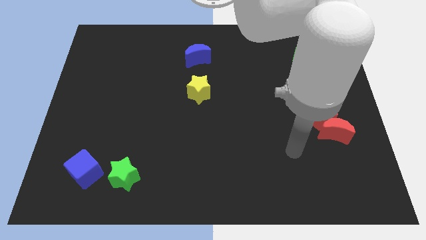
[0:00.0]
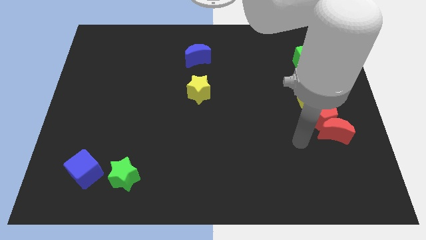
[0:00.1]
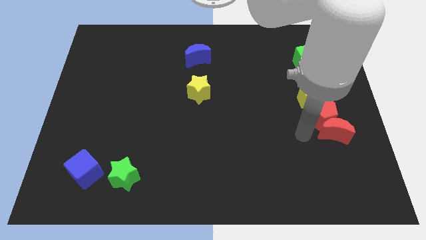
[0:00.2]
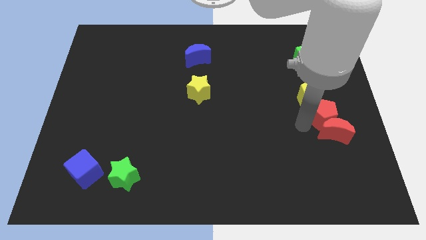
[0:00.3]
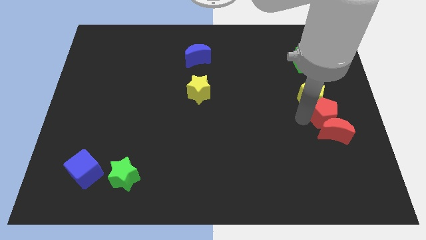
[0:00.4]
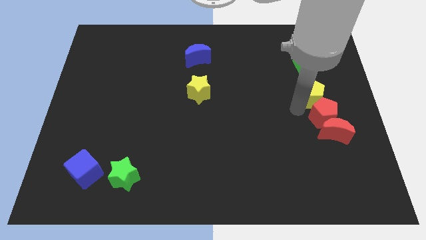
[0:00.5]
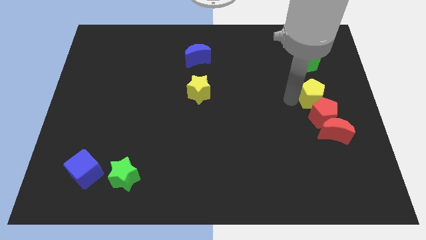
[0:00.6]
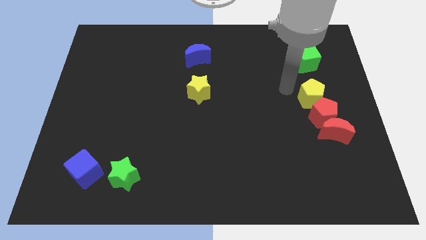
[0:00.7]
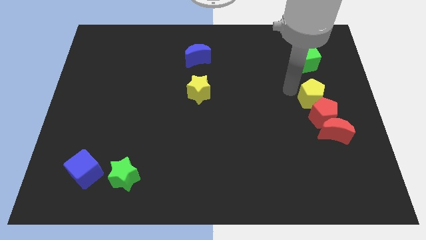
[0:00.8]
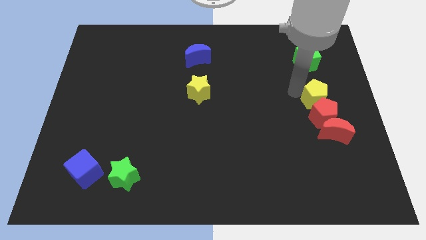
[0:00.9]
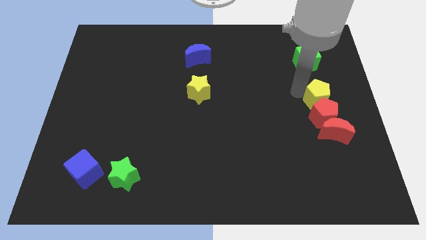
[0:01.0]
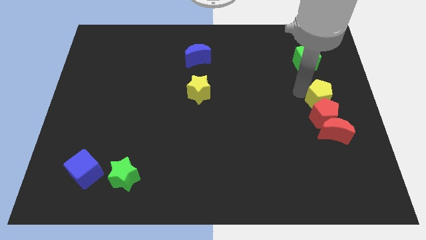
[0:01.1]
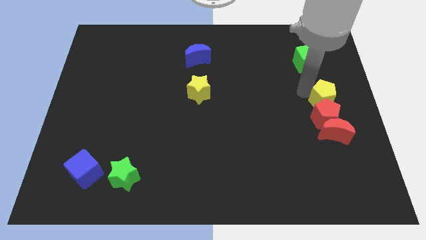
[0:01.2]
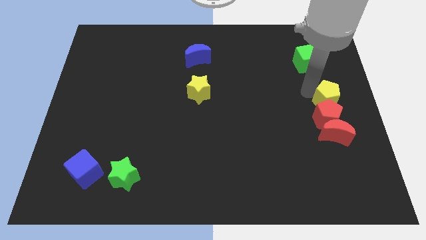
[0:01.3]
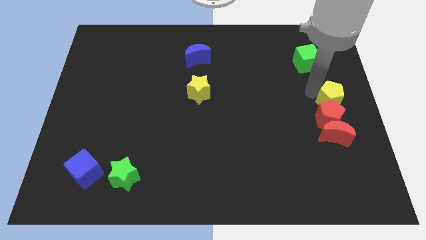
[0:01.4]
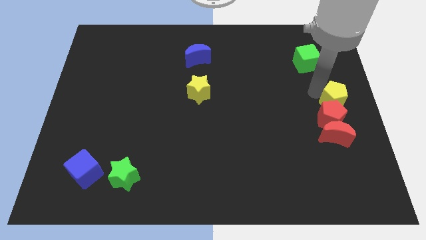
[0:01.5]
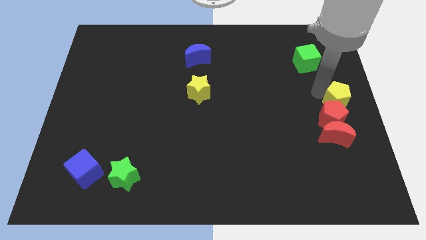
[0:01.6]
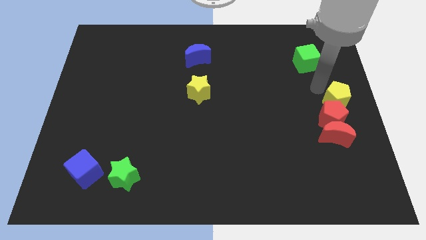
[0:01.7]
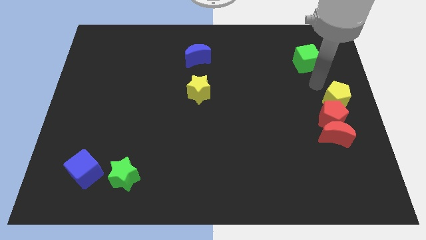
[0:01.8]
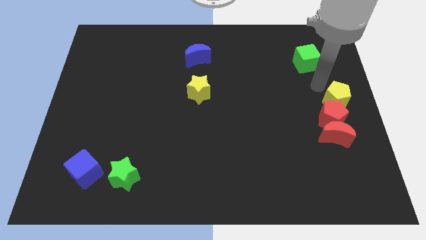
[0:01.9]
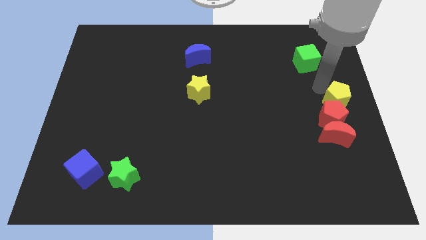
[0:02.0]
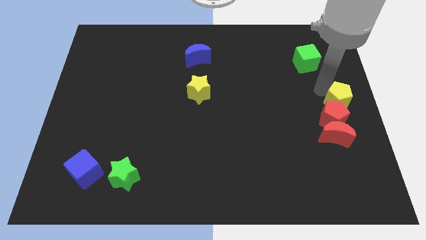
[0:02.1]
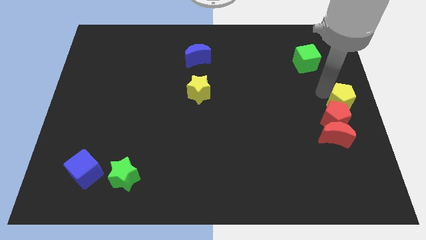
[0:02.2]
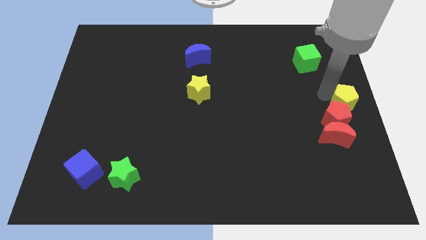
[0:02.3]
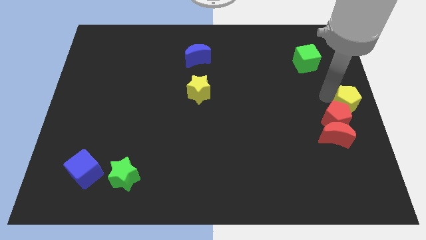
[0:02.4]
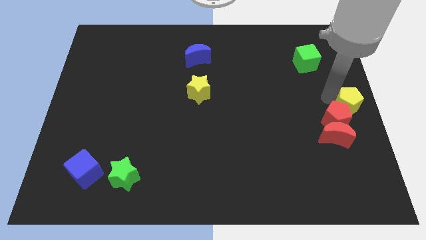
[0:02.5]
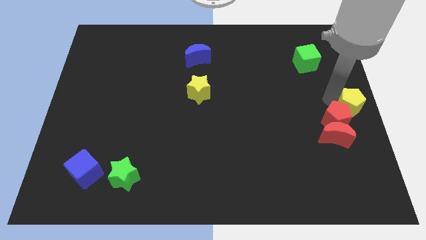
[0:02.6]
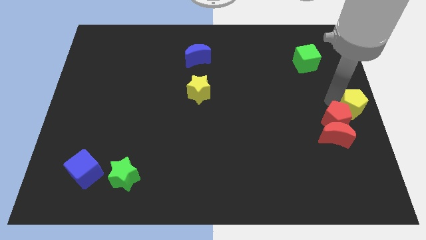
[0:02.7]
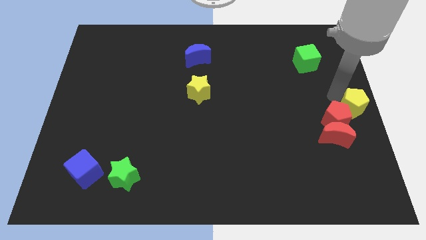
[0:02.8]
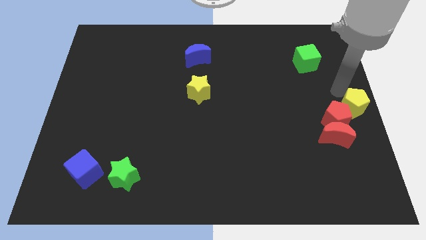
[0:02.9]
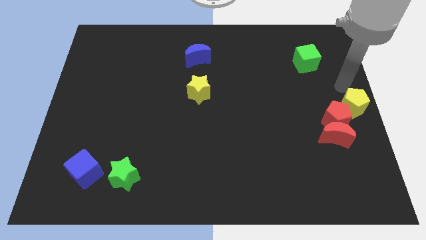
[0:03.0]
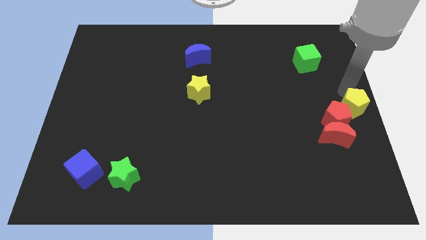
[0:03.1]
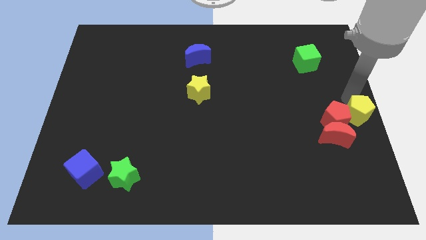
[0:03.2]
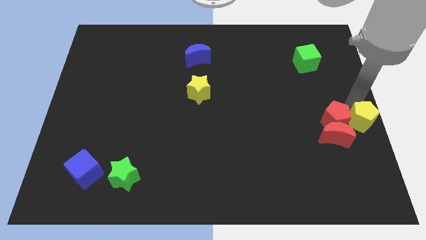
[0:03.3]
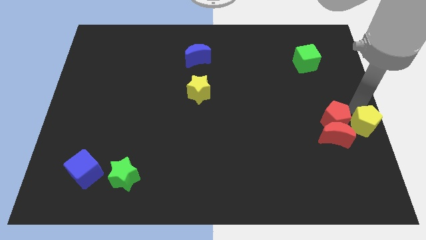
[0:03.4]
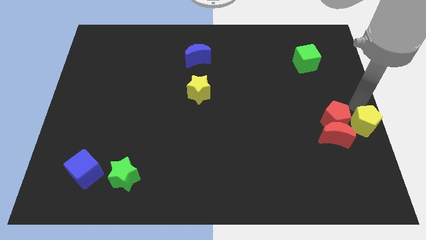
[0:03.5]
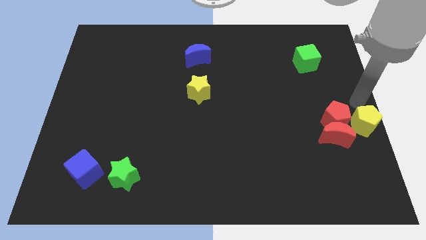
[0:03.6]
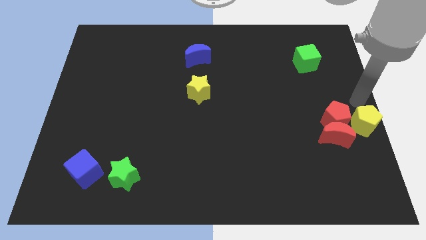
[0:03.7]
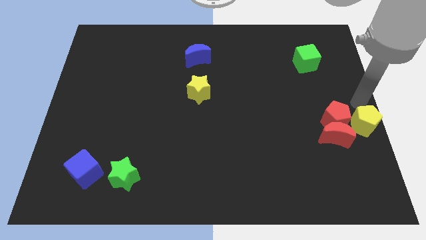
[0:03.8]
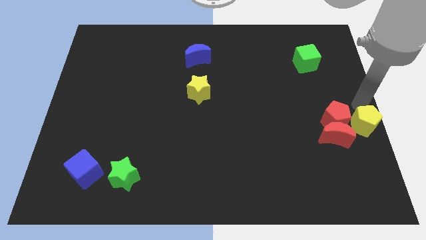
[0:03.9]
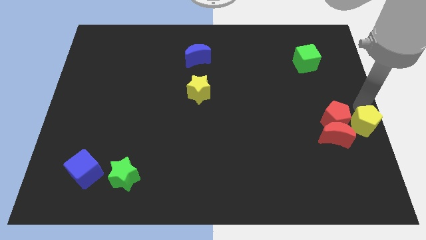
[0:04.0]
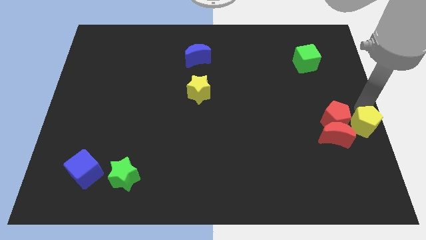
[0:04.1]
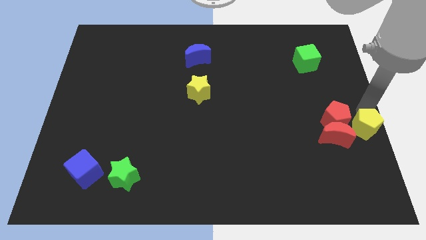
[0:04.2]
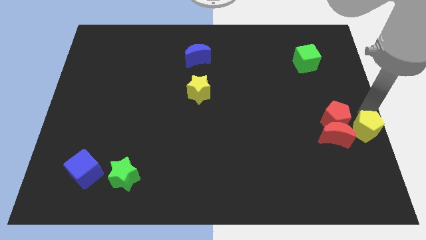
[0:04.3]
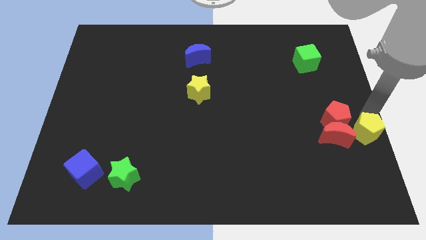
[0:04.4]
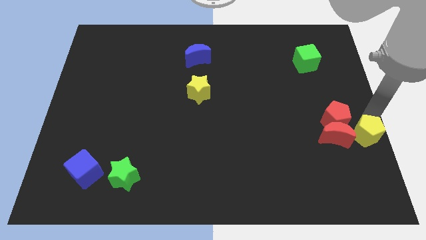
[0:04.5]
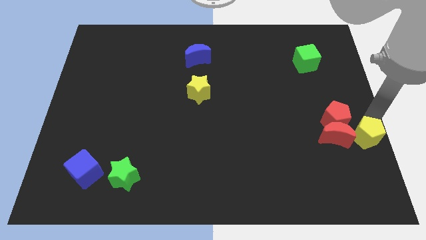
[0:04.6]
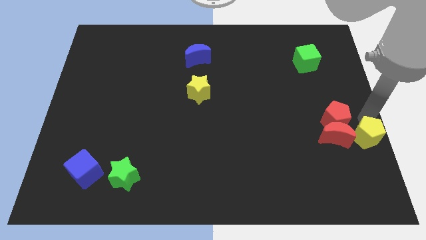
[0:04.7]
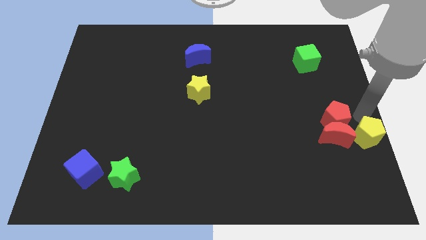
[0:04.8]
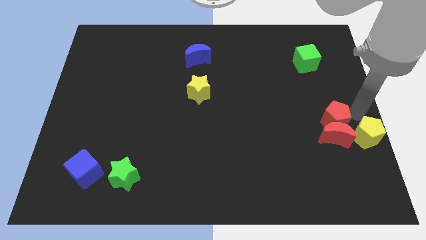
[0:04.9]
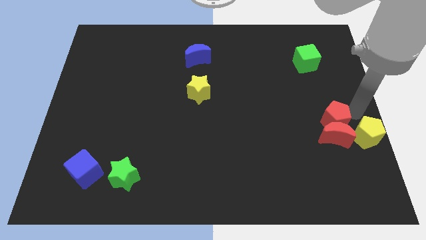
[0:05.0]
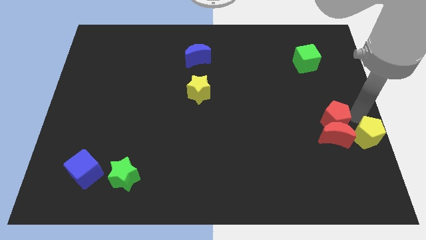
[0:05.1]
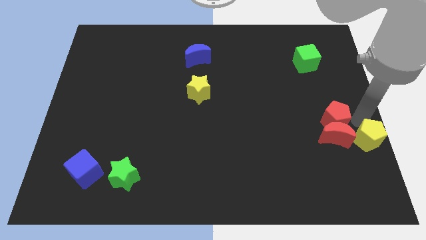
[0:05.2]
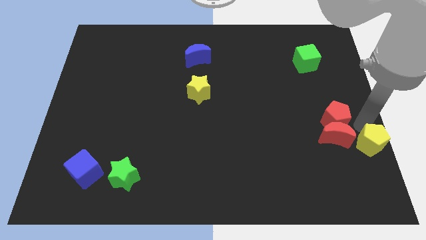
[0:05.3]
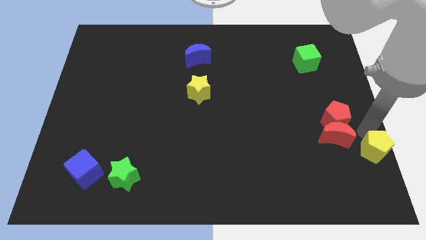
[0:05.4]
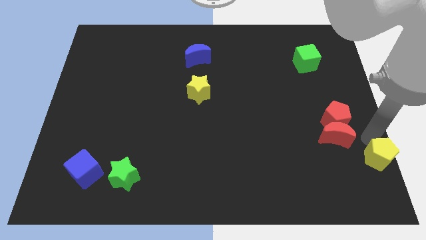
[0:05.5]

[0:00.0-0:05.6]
put the yellow pentagon to the bottom right

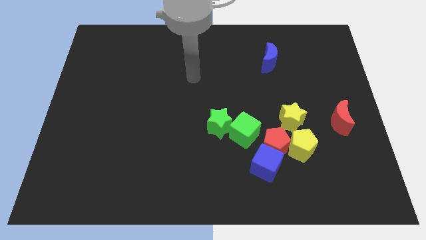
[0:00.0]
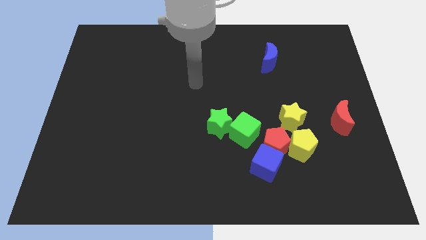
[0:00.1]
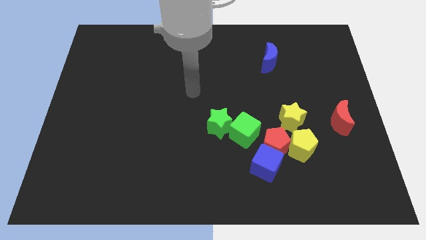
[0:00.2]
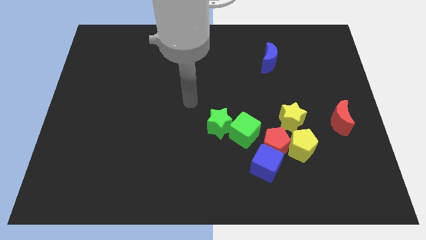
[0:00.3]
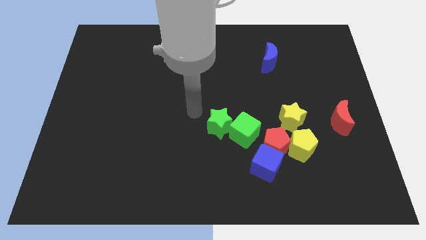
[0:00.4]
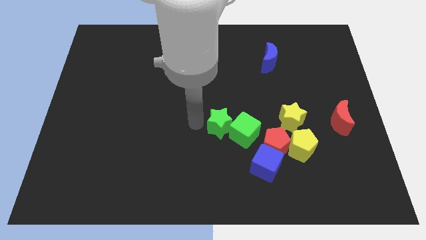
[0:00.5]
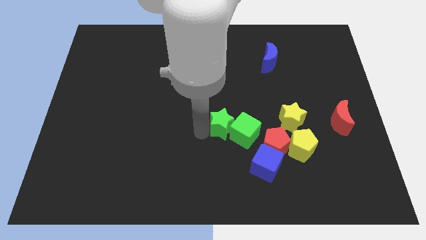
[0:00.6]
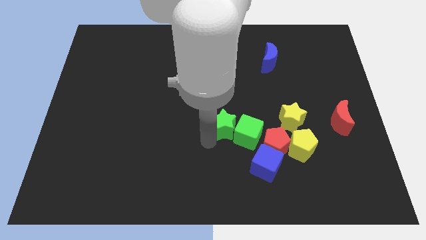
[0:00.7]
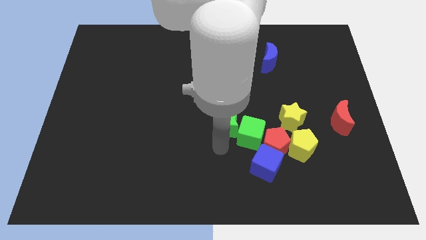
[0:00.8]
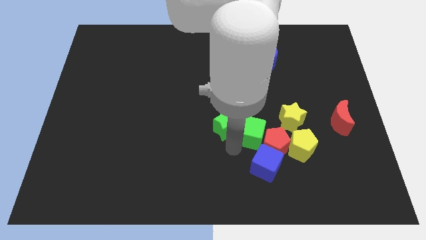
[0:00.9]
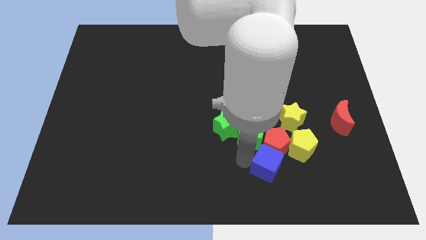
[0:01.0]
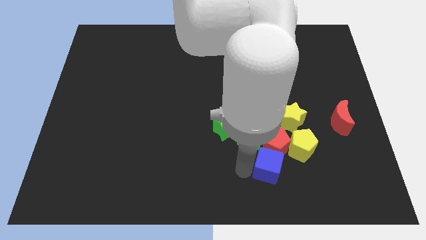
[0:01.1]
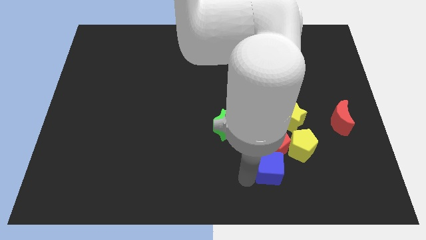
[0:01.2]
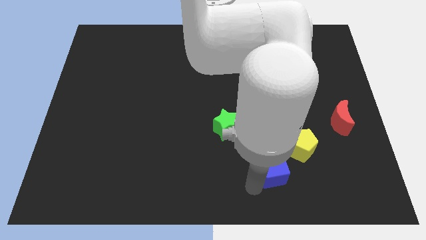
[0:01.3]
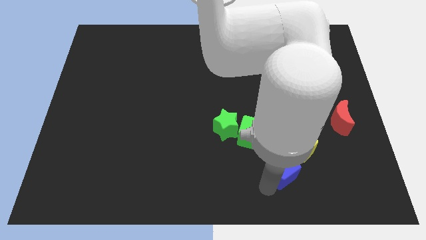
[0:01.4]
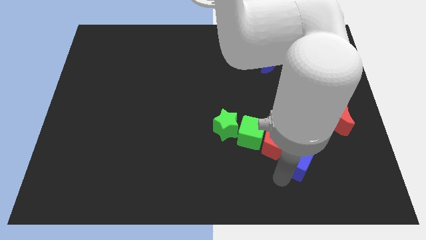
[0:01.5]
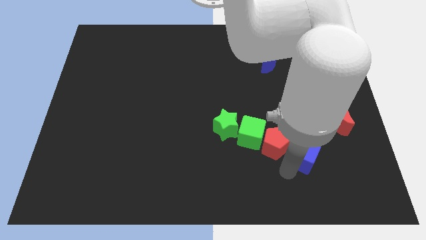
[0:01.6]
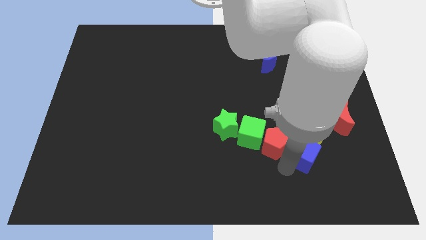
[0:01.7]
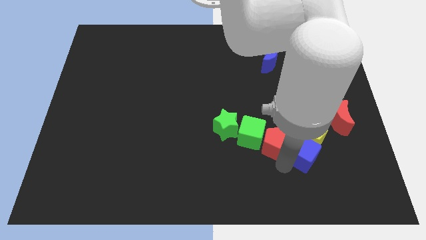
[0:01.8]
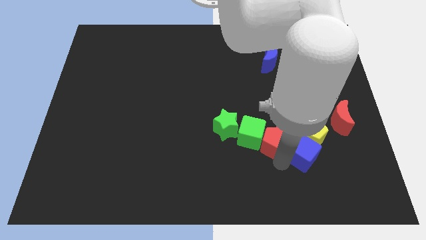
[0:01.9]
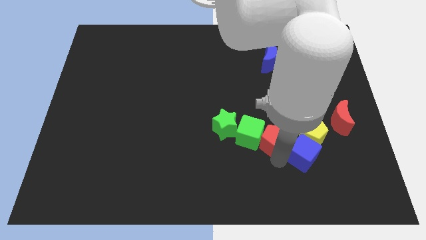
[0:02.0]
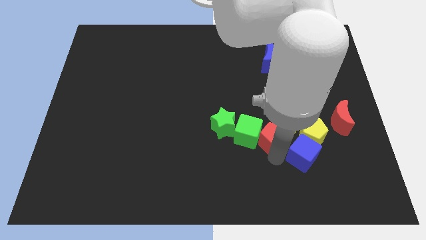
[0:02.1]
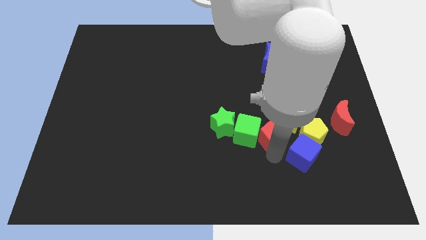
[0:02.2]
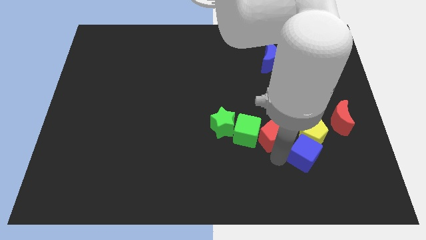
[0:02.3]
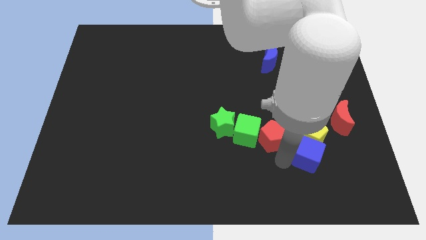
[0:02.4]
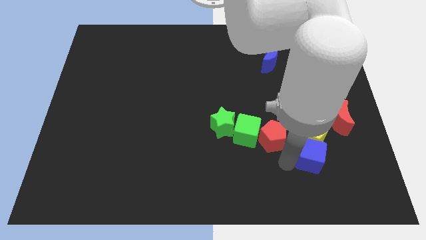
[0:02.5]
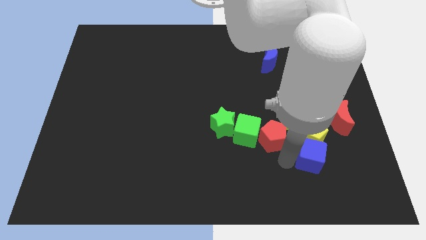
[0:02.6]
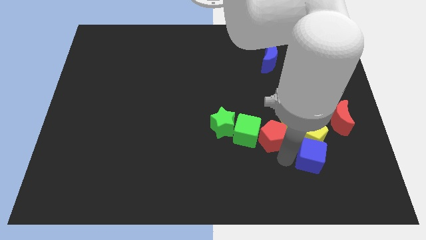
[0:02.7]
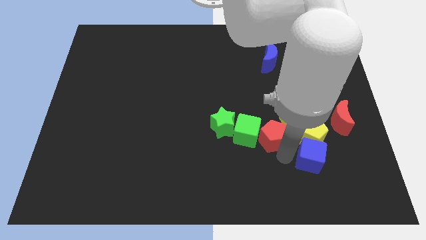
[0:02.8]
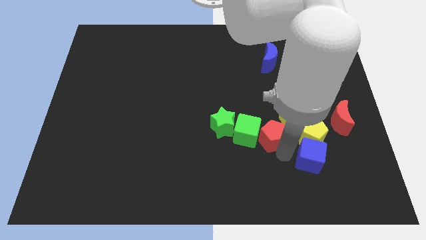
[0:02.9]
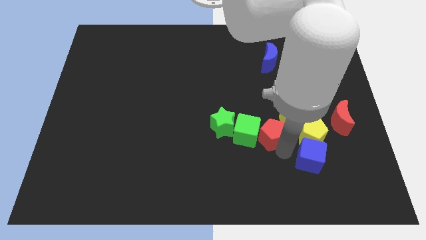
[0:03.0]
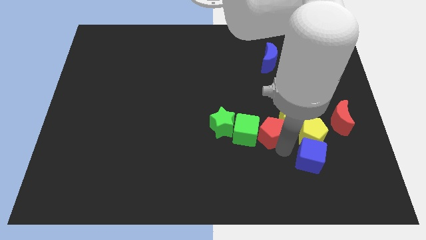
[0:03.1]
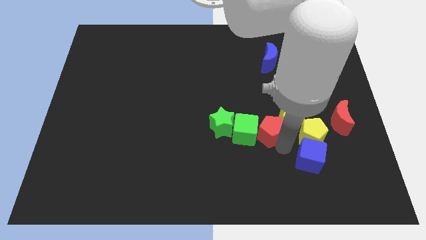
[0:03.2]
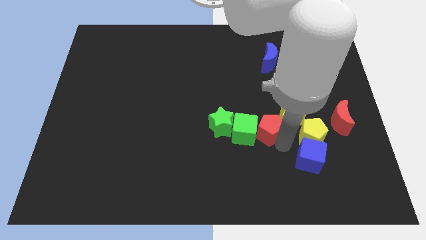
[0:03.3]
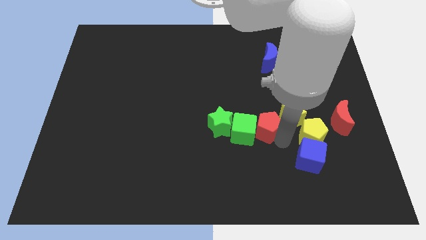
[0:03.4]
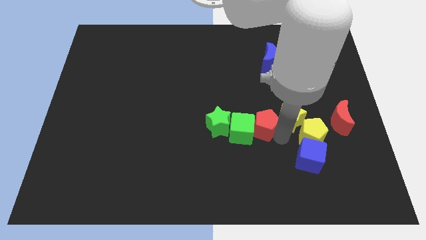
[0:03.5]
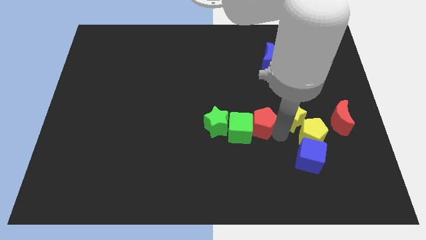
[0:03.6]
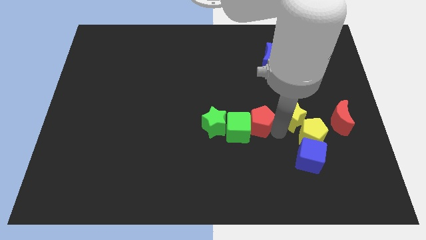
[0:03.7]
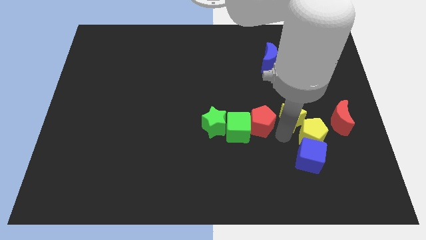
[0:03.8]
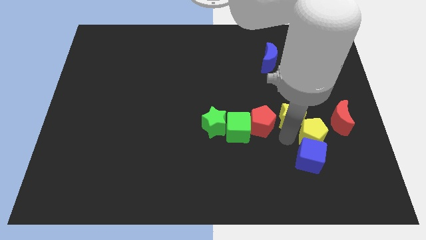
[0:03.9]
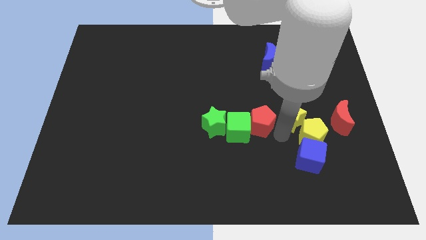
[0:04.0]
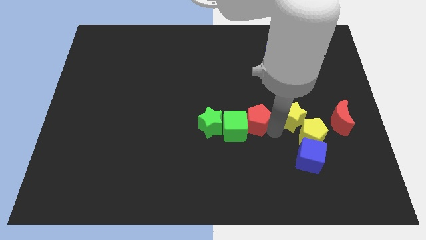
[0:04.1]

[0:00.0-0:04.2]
push the red pentagon to the center
